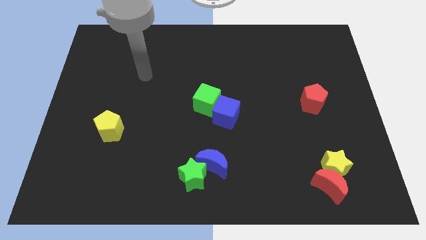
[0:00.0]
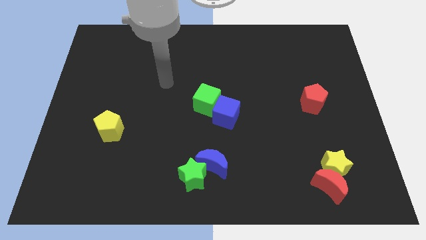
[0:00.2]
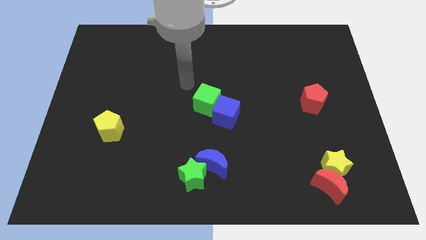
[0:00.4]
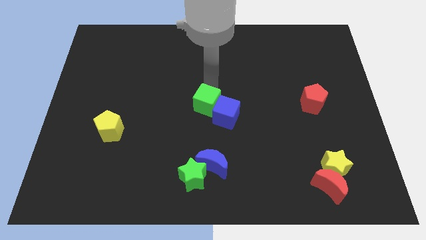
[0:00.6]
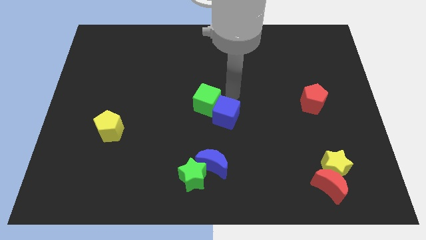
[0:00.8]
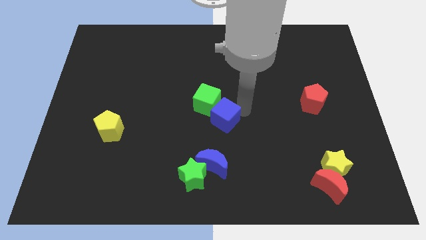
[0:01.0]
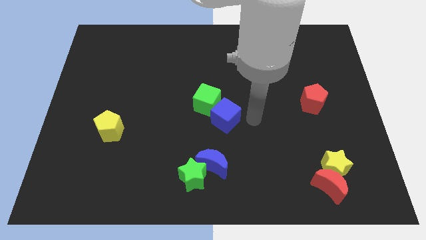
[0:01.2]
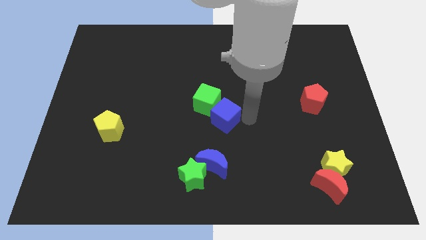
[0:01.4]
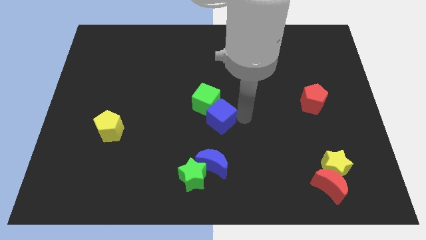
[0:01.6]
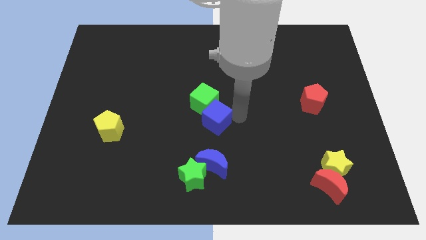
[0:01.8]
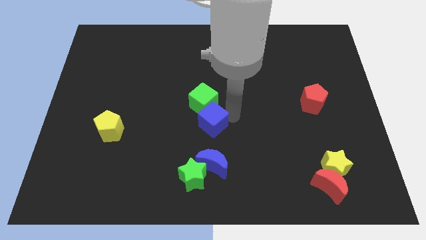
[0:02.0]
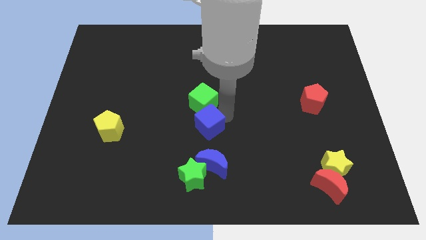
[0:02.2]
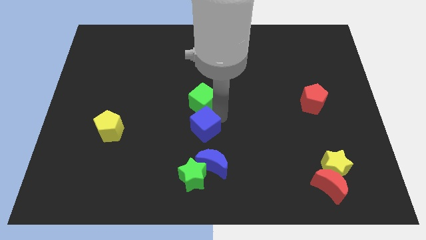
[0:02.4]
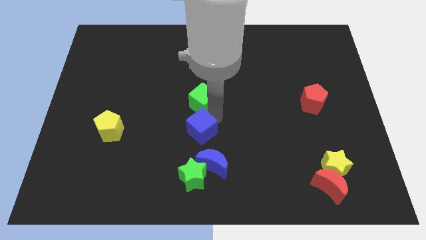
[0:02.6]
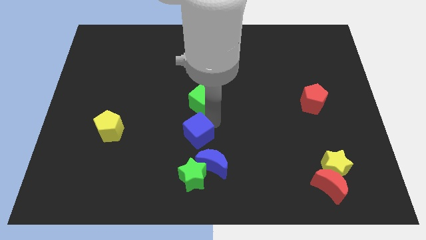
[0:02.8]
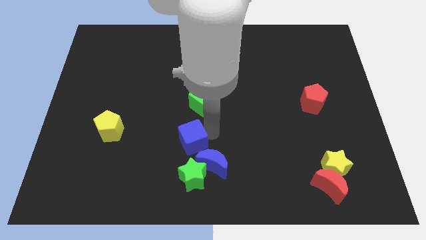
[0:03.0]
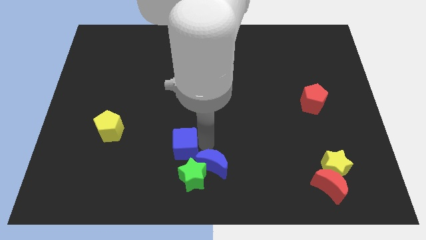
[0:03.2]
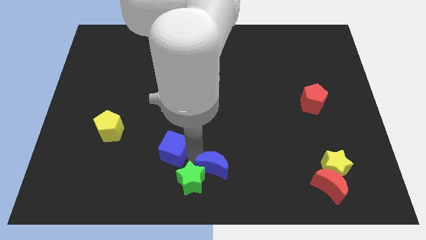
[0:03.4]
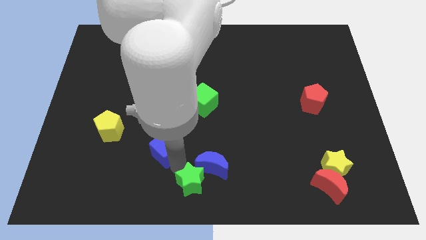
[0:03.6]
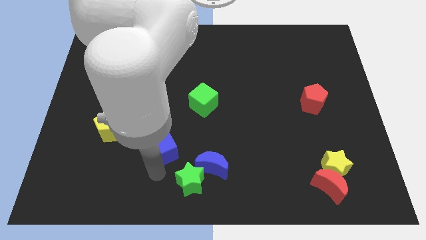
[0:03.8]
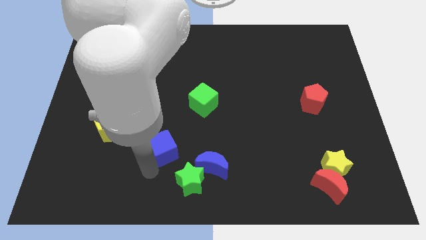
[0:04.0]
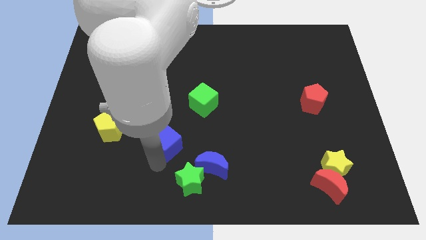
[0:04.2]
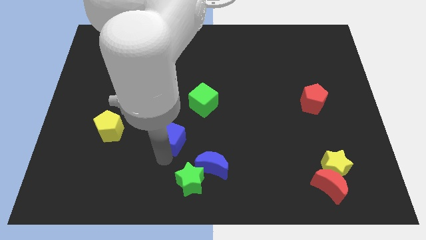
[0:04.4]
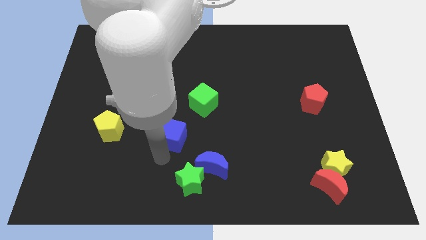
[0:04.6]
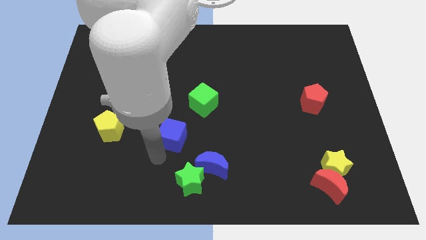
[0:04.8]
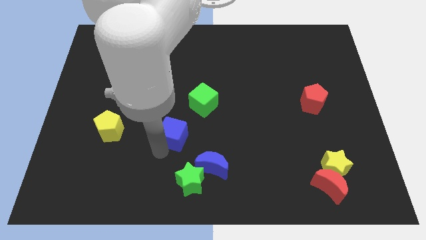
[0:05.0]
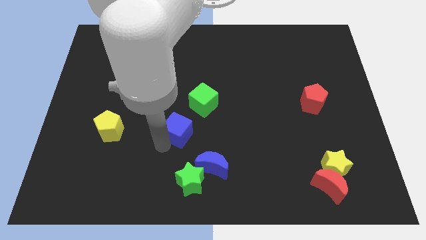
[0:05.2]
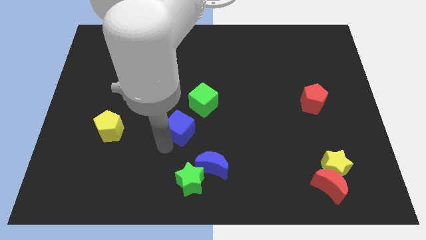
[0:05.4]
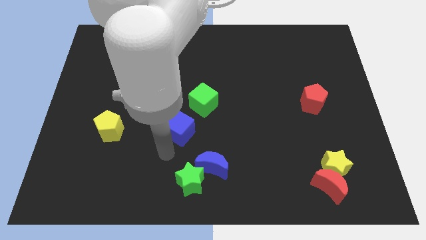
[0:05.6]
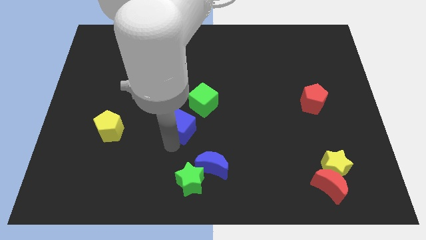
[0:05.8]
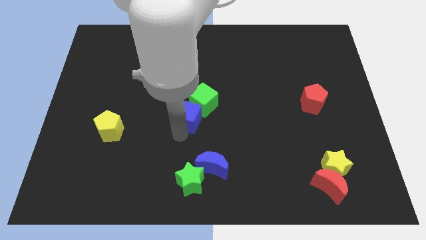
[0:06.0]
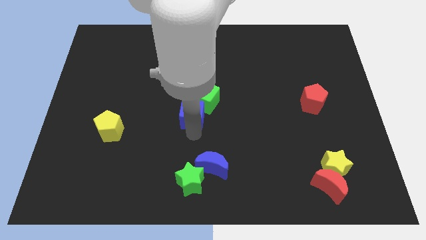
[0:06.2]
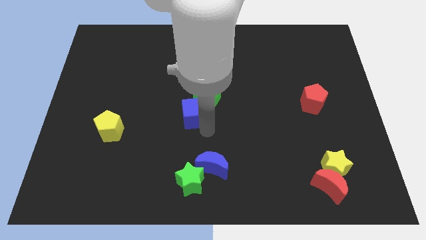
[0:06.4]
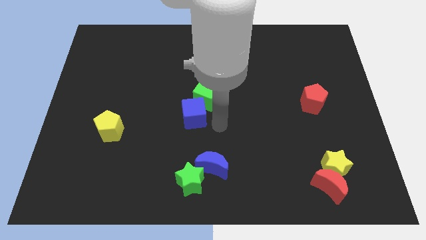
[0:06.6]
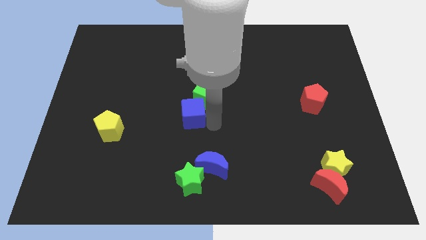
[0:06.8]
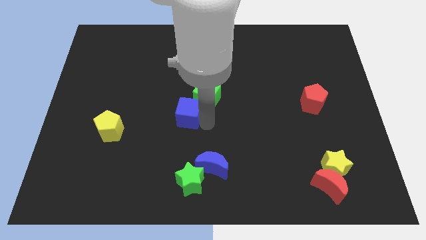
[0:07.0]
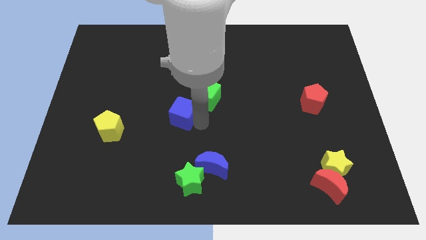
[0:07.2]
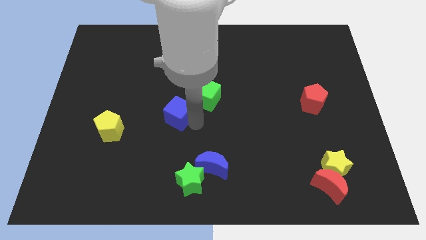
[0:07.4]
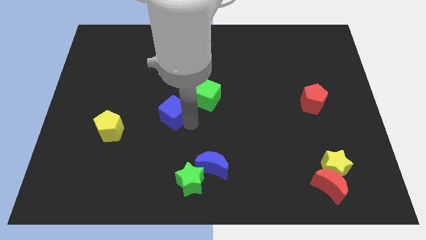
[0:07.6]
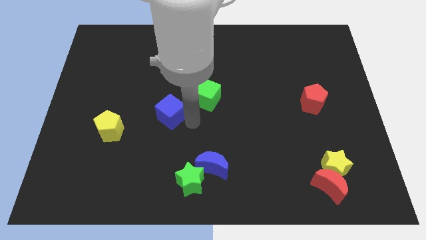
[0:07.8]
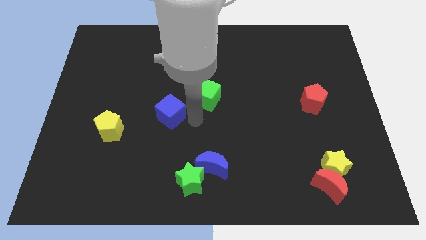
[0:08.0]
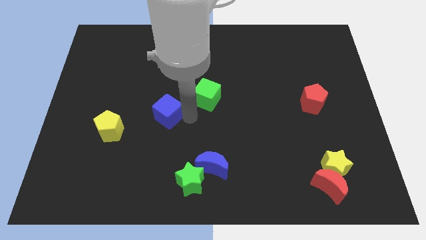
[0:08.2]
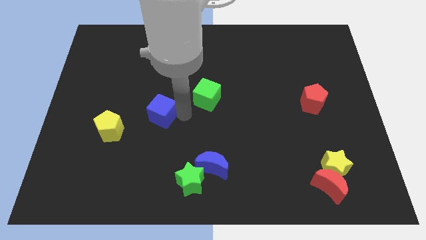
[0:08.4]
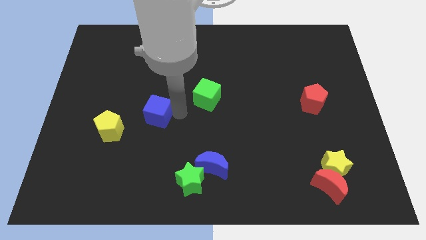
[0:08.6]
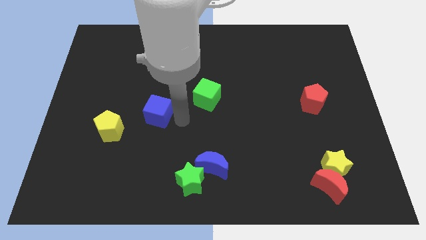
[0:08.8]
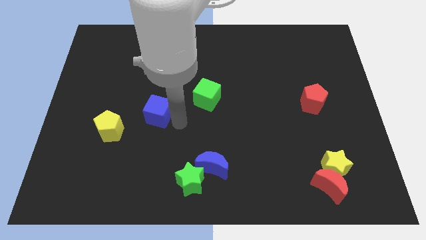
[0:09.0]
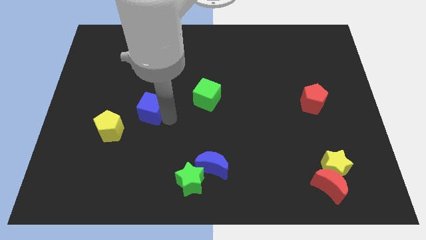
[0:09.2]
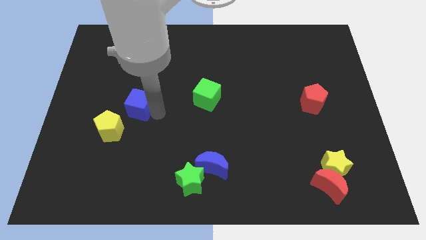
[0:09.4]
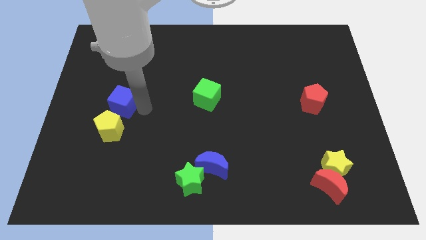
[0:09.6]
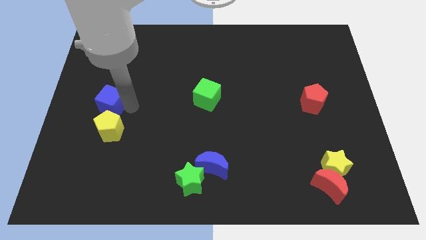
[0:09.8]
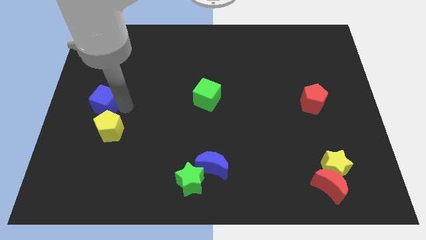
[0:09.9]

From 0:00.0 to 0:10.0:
move the blue cube to the center left

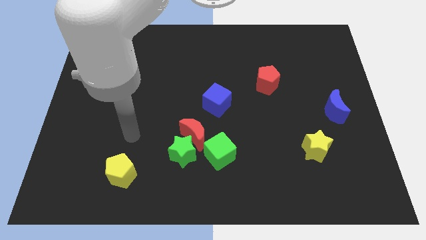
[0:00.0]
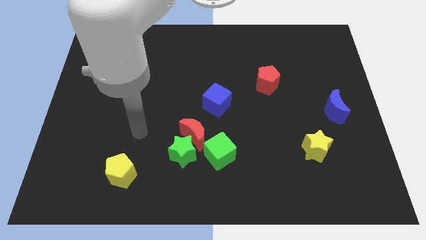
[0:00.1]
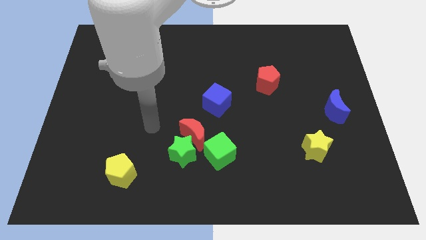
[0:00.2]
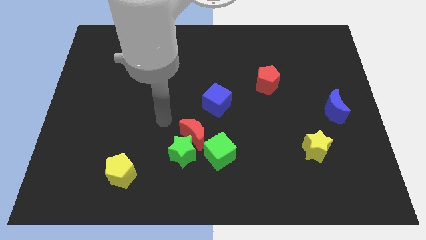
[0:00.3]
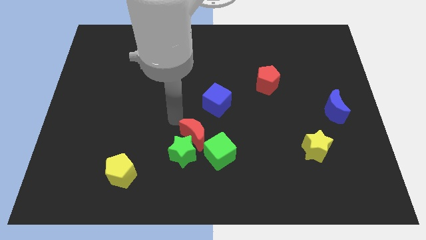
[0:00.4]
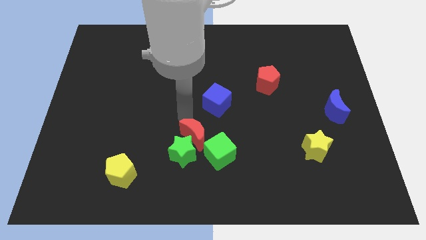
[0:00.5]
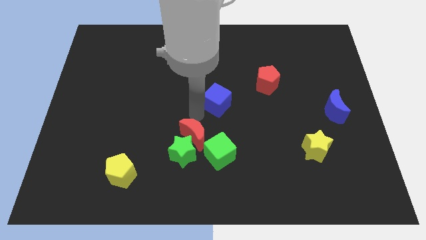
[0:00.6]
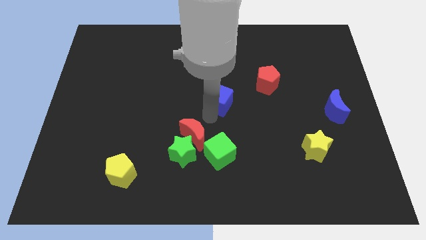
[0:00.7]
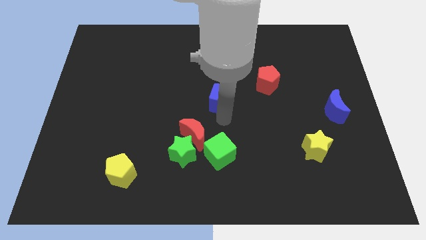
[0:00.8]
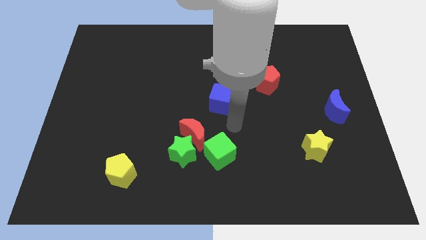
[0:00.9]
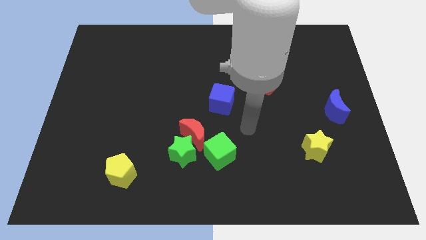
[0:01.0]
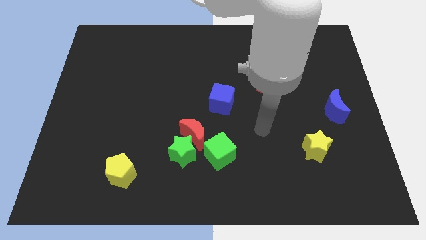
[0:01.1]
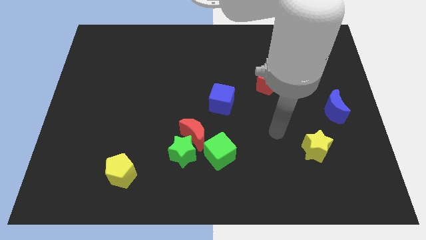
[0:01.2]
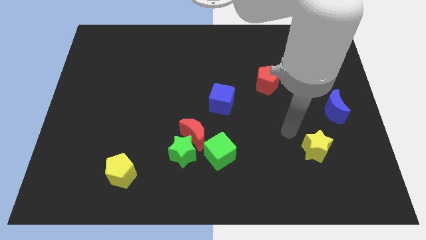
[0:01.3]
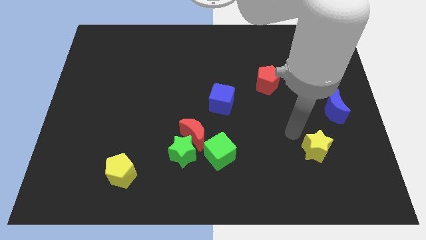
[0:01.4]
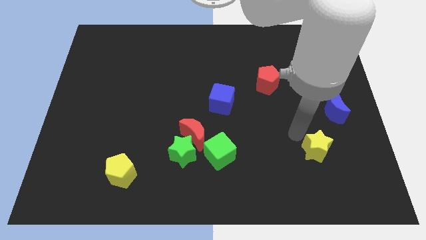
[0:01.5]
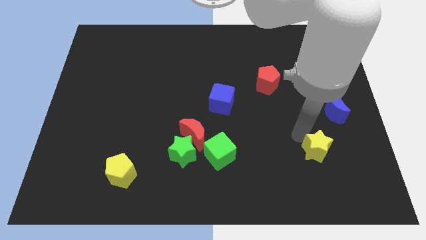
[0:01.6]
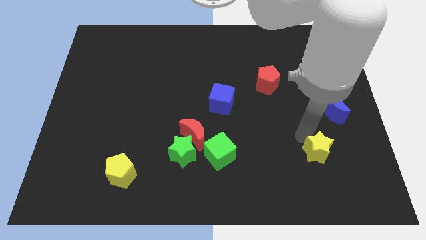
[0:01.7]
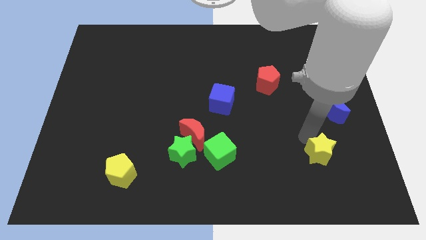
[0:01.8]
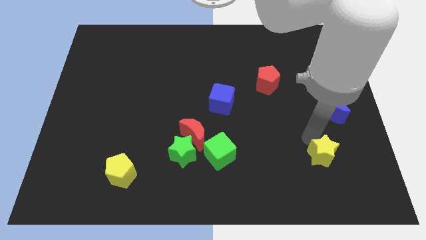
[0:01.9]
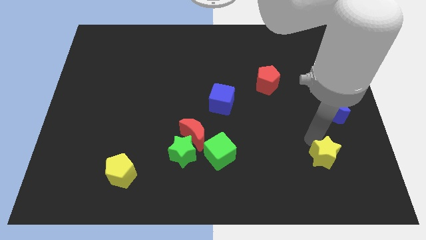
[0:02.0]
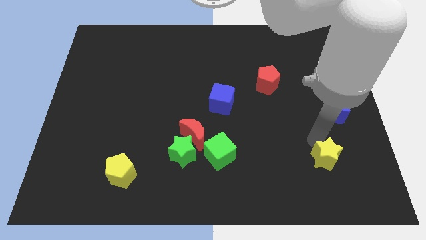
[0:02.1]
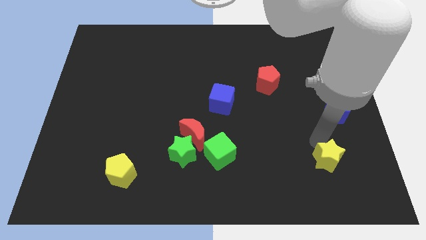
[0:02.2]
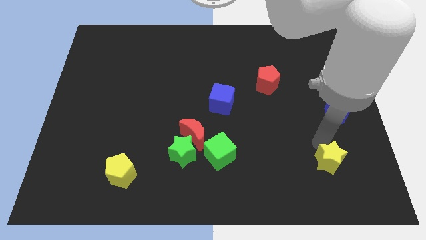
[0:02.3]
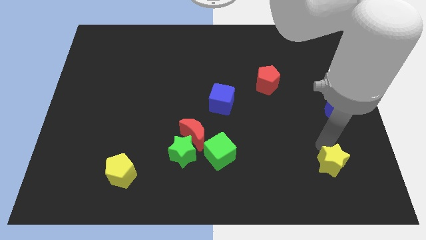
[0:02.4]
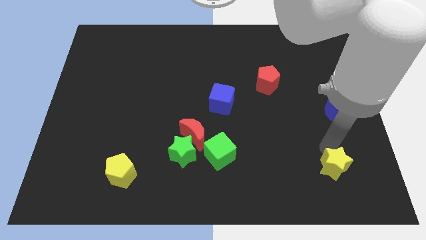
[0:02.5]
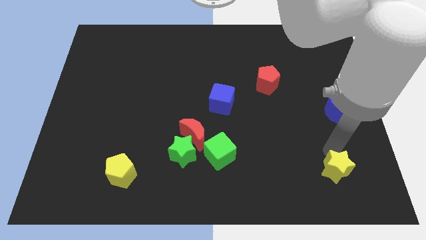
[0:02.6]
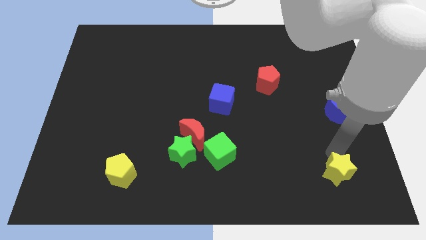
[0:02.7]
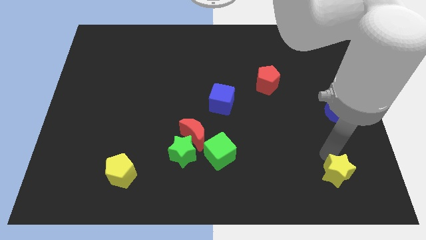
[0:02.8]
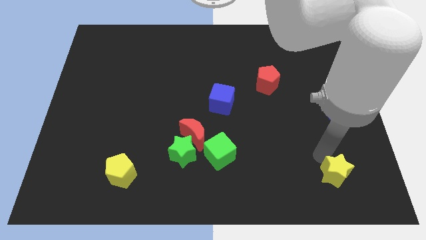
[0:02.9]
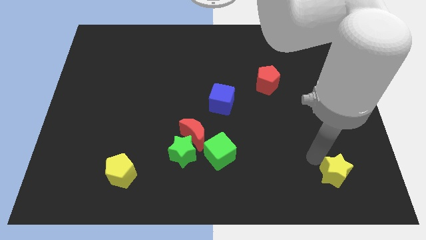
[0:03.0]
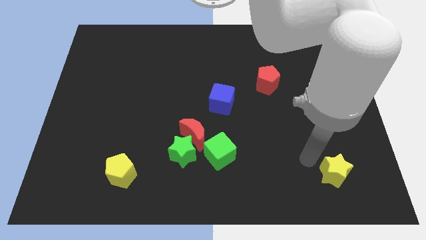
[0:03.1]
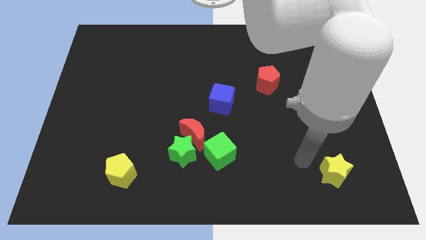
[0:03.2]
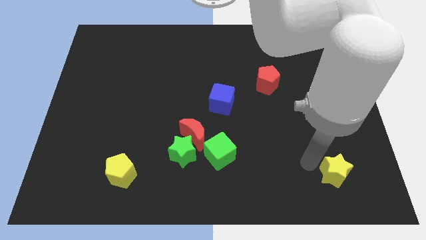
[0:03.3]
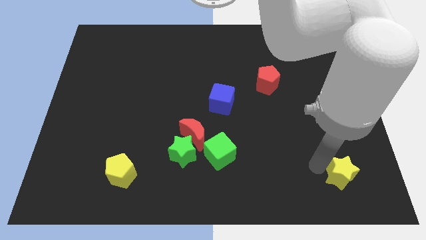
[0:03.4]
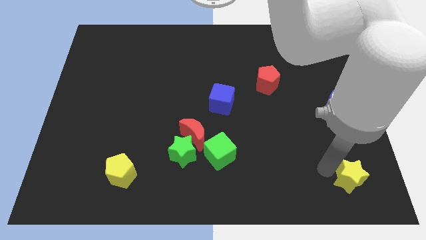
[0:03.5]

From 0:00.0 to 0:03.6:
put the yellow star to the lower right corner
